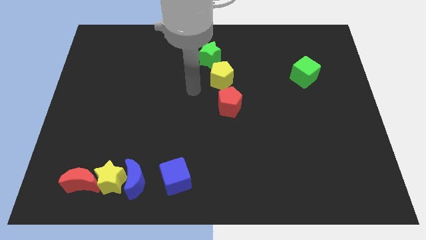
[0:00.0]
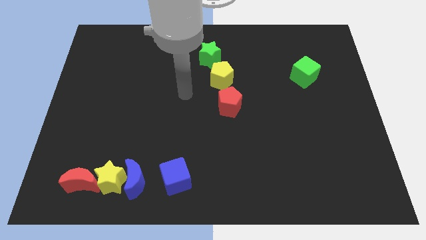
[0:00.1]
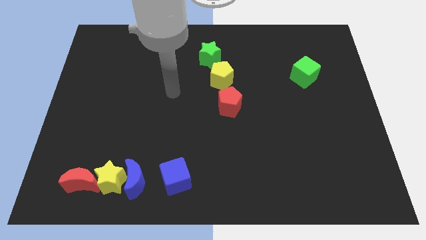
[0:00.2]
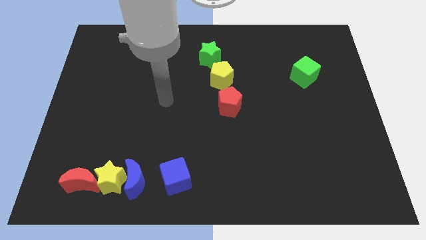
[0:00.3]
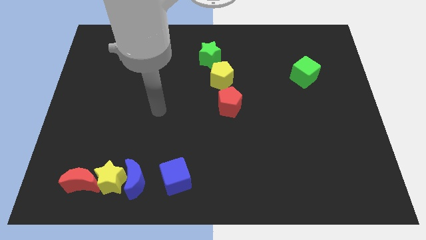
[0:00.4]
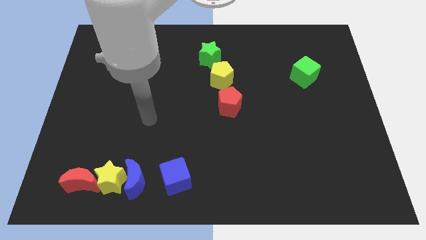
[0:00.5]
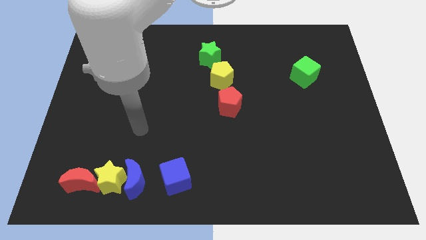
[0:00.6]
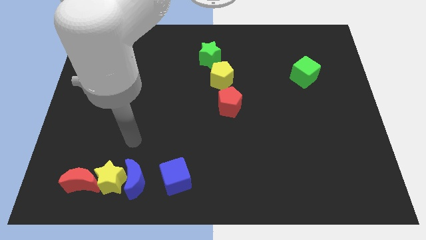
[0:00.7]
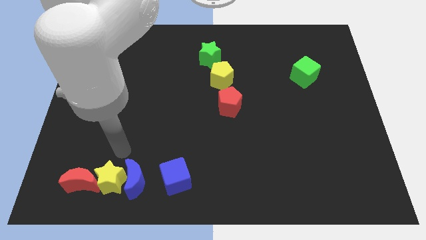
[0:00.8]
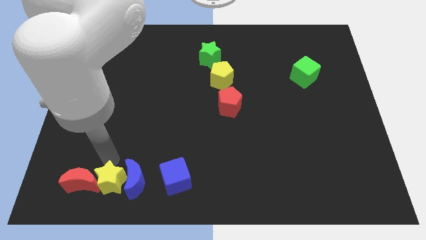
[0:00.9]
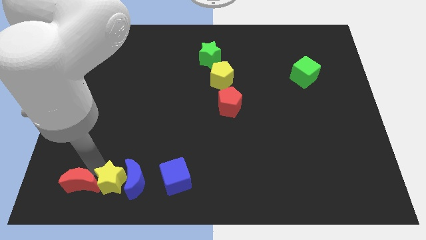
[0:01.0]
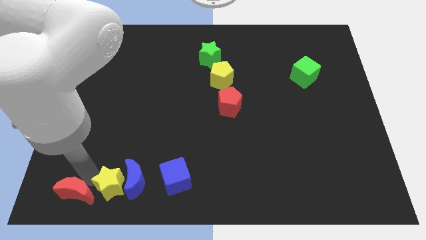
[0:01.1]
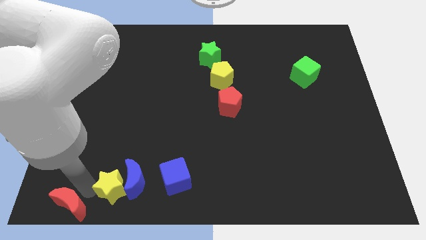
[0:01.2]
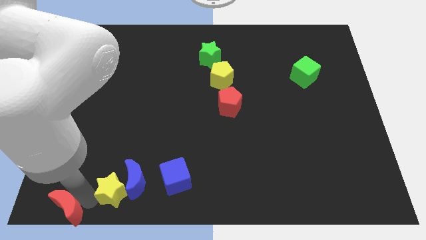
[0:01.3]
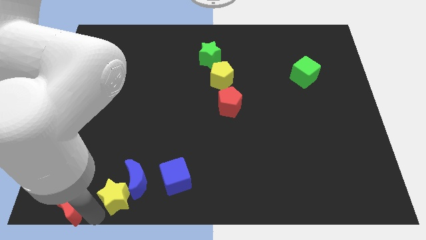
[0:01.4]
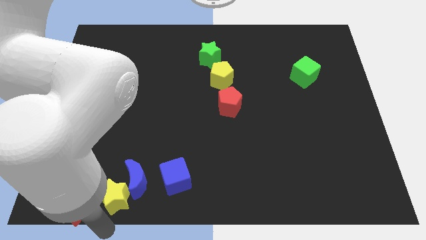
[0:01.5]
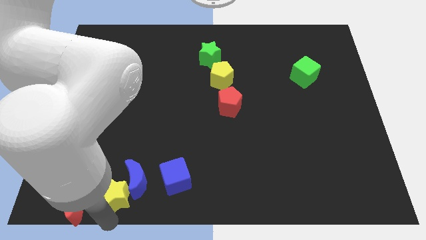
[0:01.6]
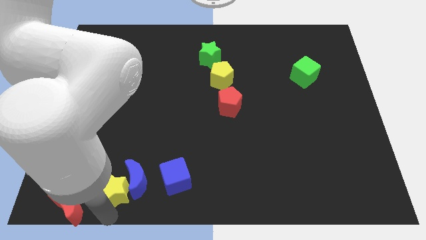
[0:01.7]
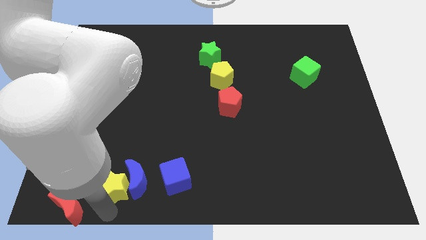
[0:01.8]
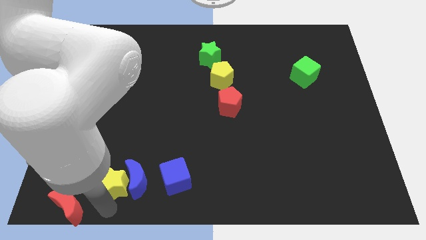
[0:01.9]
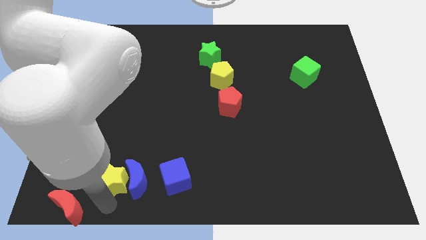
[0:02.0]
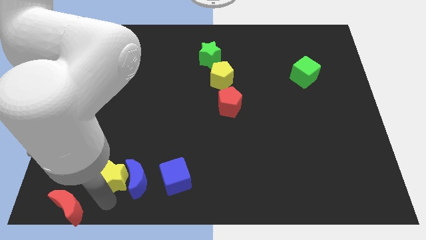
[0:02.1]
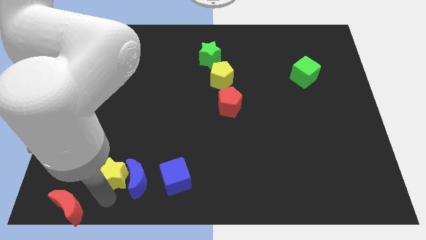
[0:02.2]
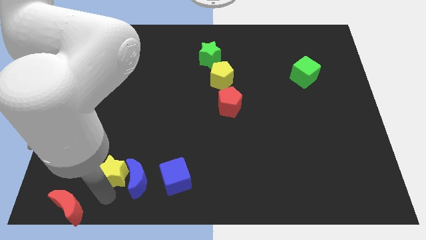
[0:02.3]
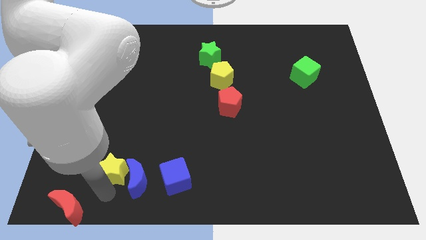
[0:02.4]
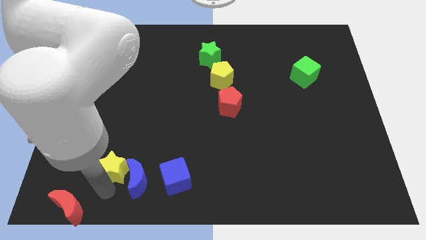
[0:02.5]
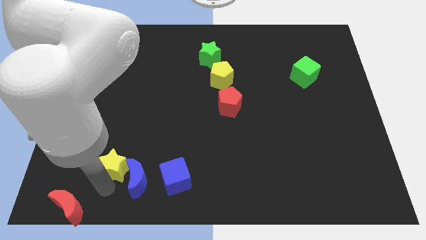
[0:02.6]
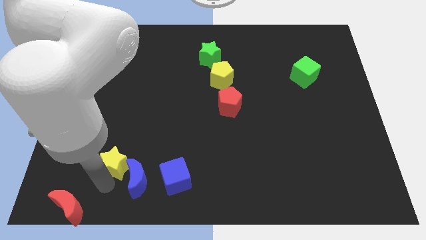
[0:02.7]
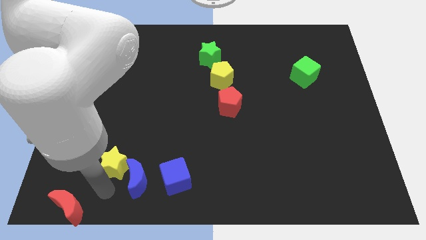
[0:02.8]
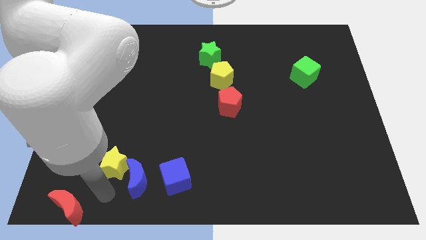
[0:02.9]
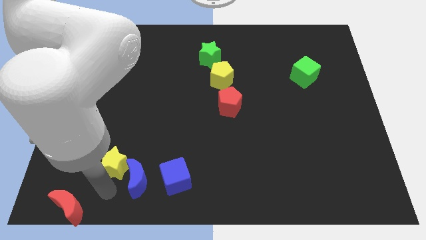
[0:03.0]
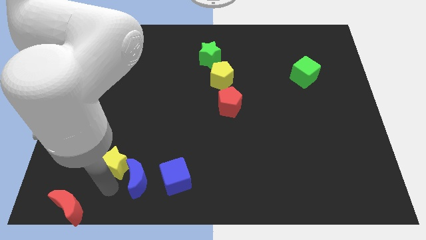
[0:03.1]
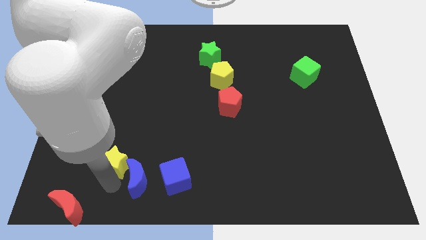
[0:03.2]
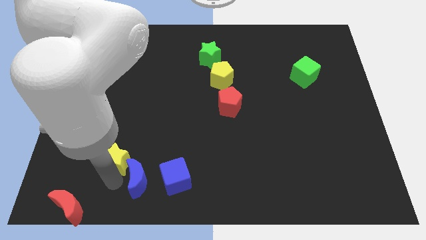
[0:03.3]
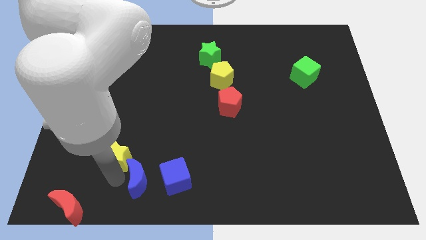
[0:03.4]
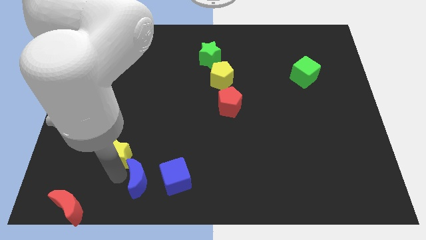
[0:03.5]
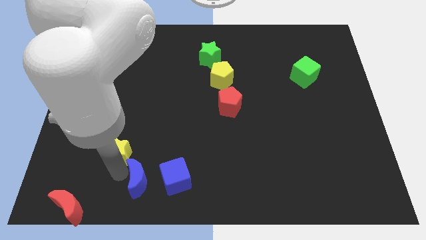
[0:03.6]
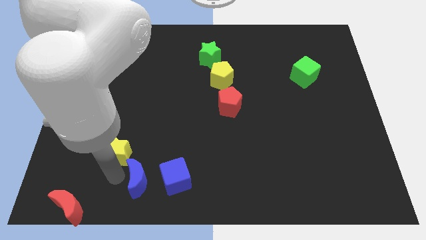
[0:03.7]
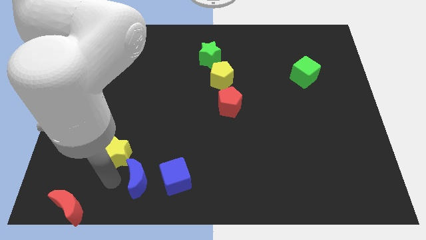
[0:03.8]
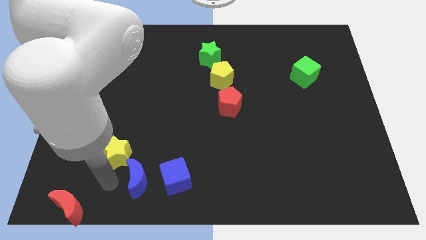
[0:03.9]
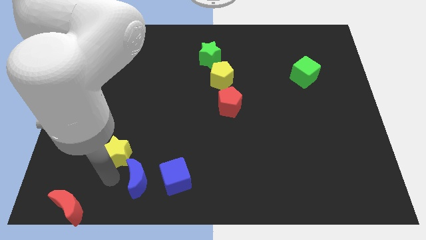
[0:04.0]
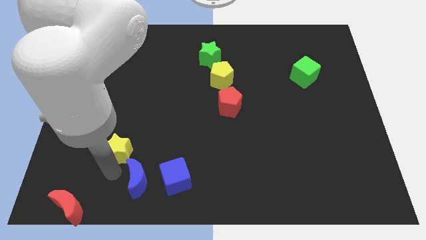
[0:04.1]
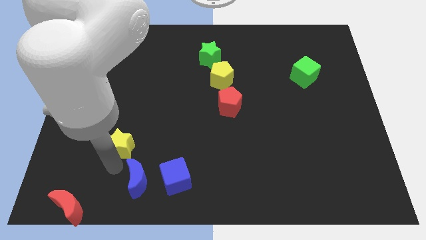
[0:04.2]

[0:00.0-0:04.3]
separate the yellow star from the blue moon and red moon

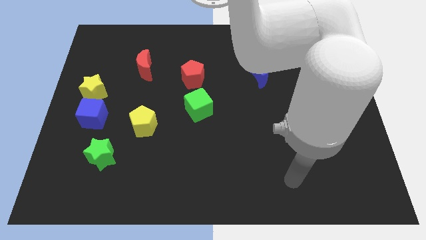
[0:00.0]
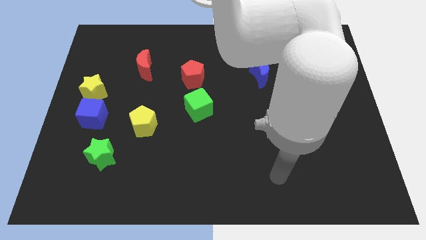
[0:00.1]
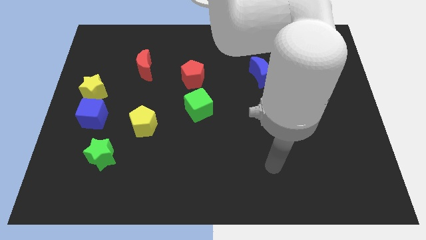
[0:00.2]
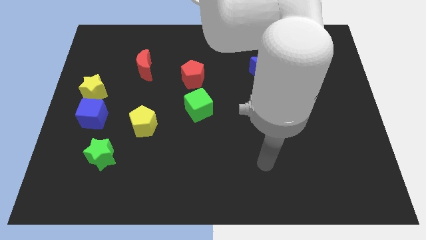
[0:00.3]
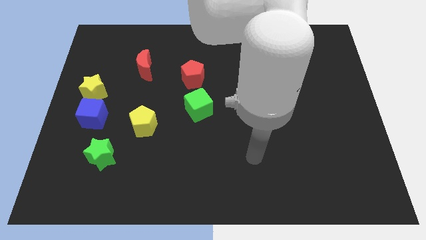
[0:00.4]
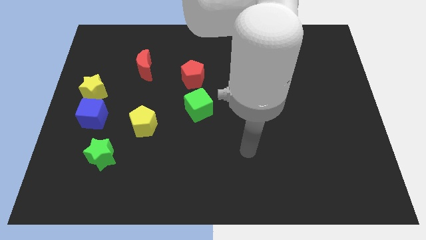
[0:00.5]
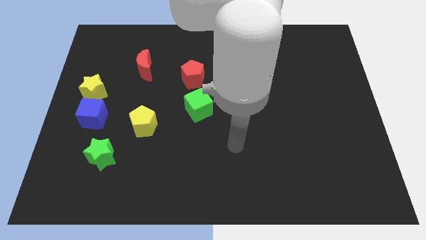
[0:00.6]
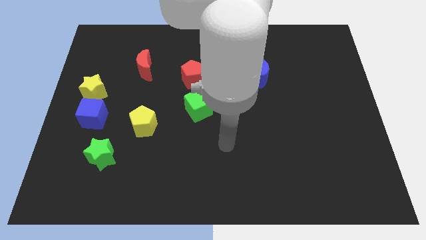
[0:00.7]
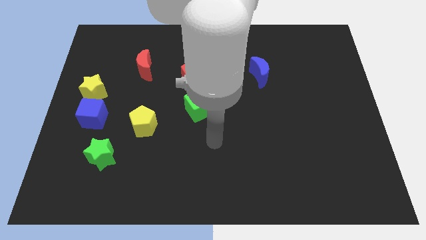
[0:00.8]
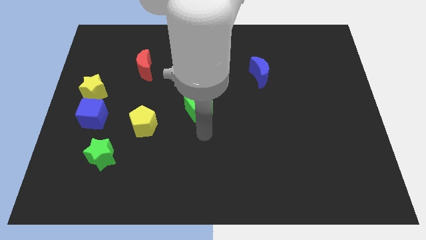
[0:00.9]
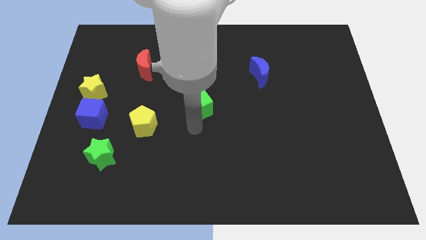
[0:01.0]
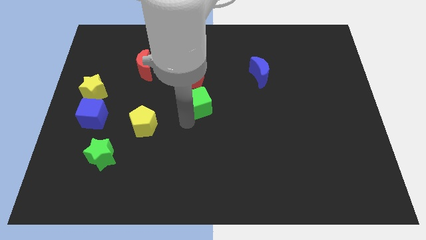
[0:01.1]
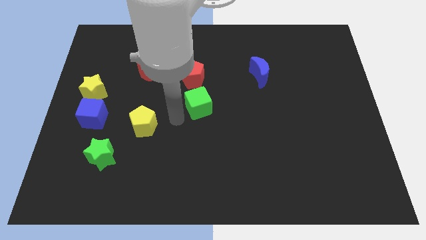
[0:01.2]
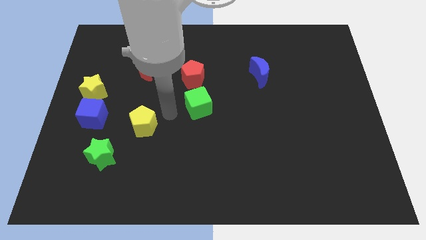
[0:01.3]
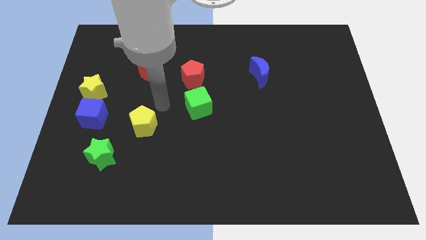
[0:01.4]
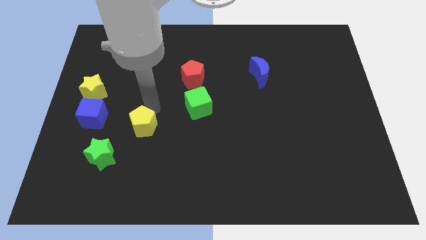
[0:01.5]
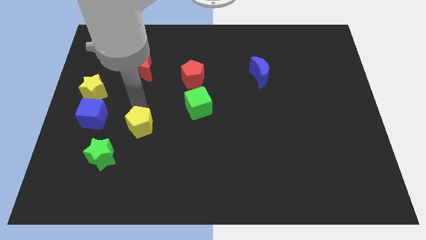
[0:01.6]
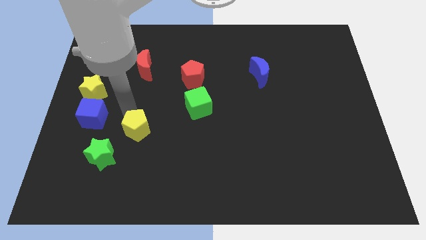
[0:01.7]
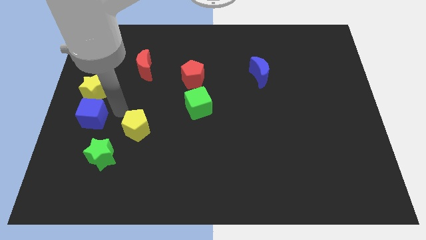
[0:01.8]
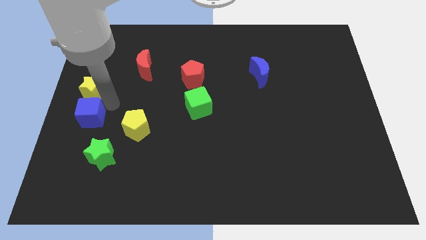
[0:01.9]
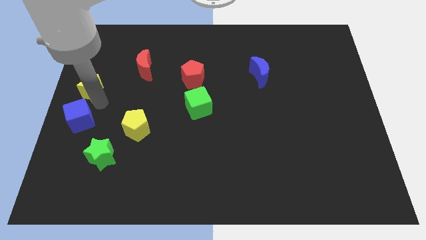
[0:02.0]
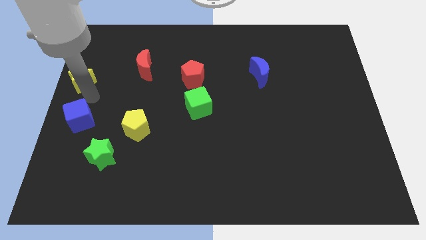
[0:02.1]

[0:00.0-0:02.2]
pull the blue cube apart from the yellow star

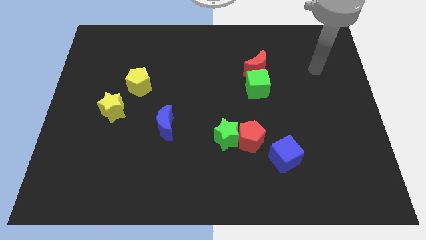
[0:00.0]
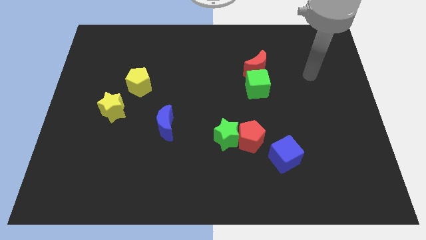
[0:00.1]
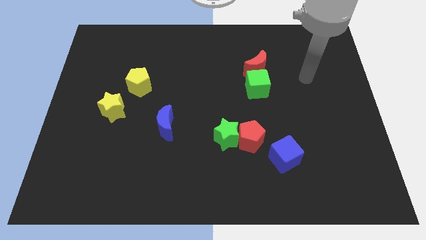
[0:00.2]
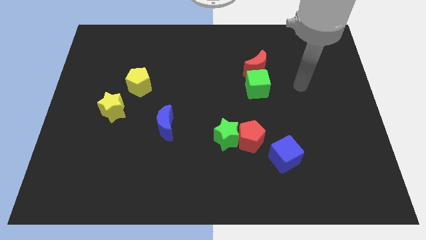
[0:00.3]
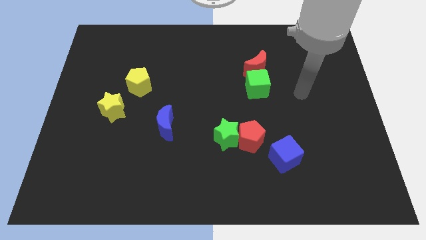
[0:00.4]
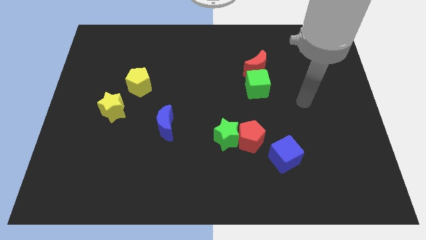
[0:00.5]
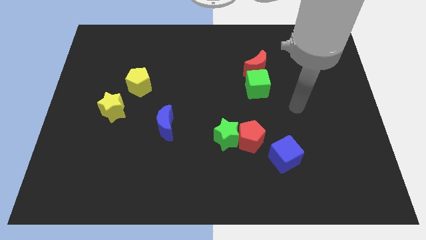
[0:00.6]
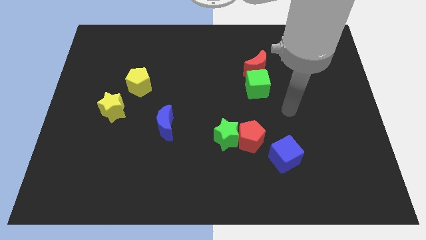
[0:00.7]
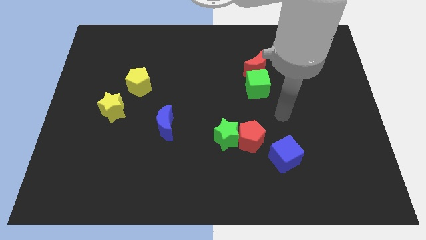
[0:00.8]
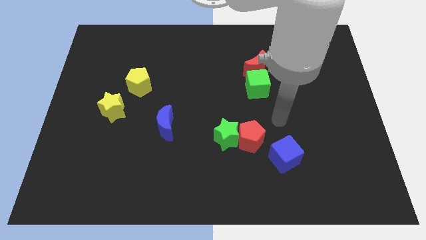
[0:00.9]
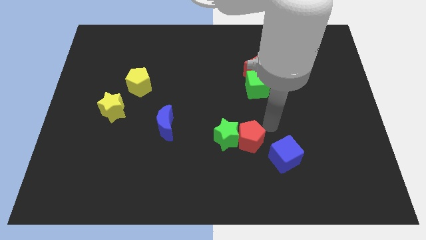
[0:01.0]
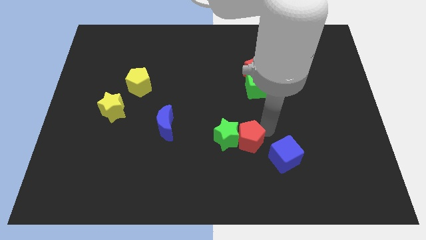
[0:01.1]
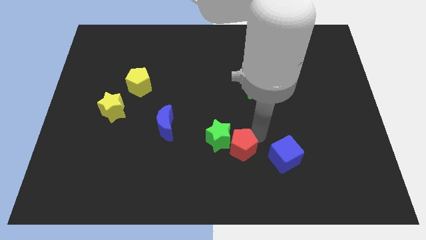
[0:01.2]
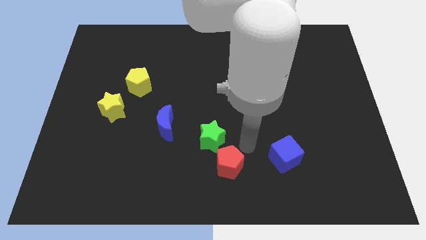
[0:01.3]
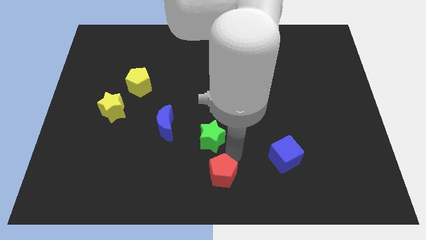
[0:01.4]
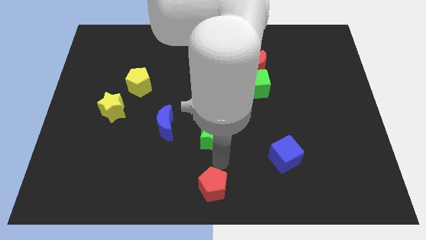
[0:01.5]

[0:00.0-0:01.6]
pull the green star apart from the red pentagon

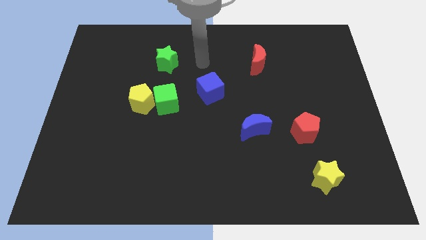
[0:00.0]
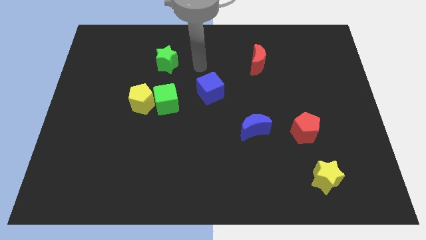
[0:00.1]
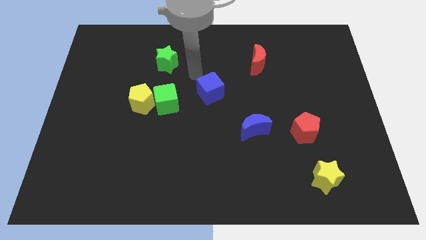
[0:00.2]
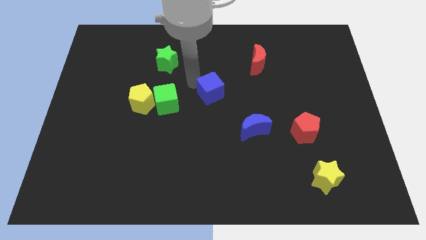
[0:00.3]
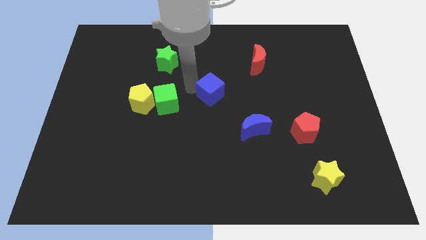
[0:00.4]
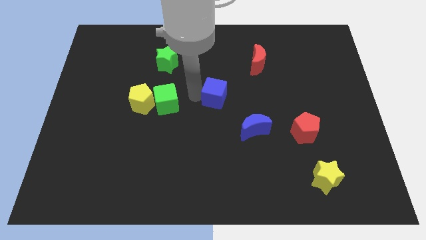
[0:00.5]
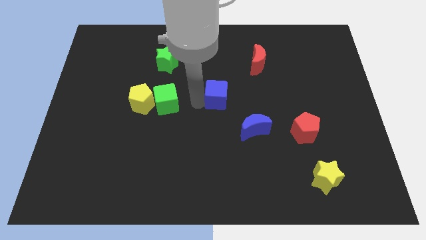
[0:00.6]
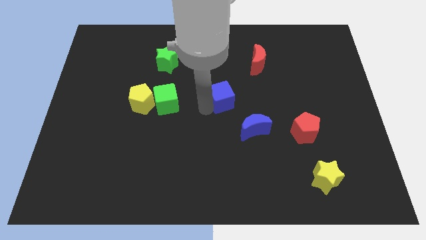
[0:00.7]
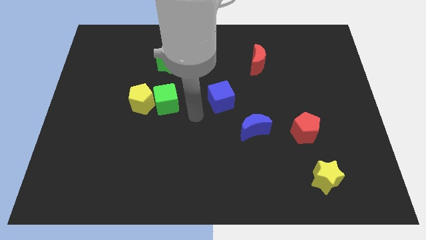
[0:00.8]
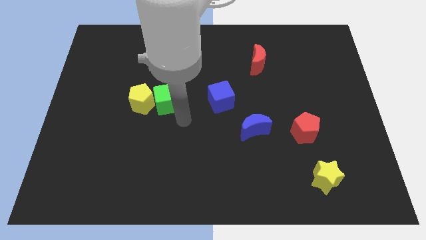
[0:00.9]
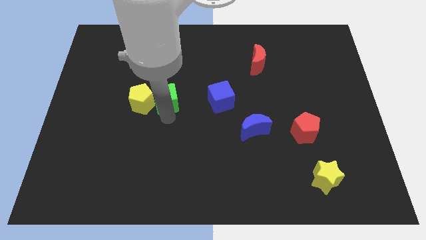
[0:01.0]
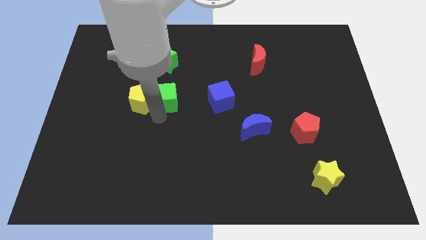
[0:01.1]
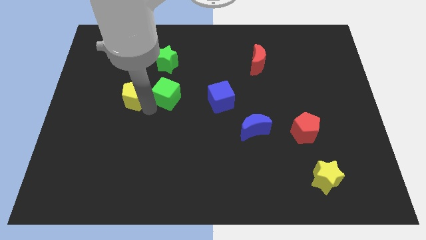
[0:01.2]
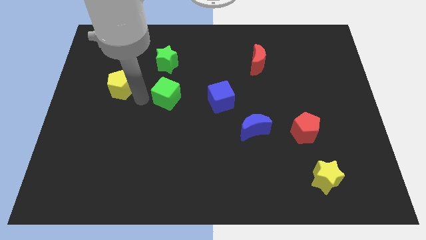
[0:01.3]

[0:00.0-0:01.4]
separate the green cube from the yellow pentagon

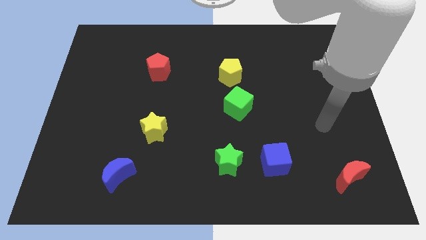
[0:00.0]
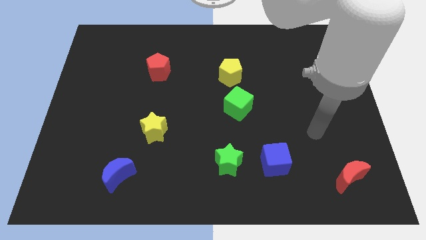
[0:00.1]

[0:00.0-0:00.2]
pull the blue cube apart from the green star
